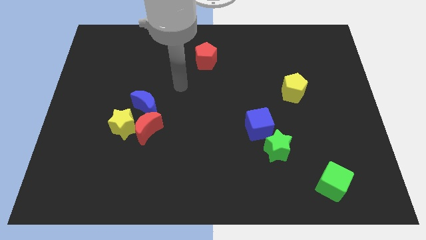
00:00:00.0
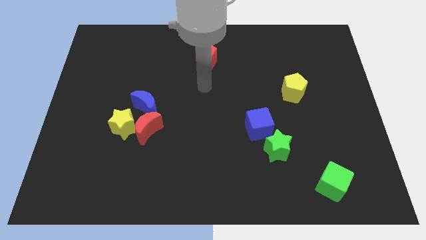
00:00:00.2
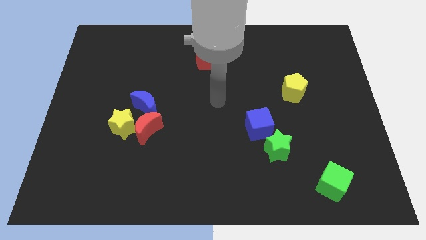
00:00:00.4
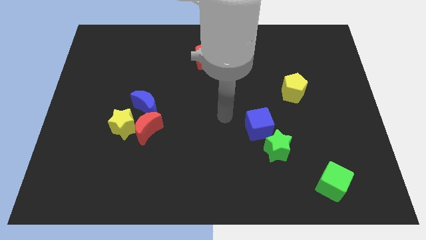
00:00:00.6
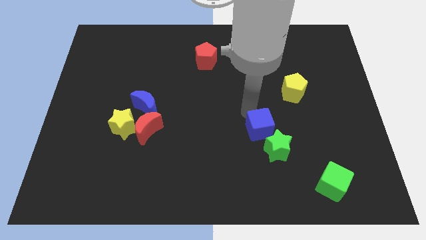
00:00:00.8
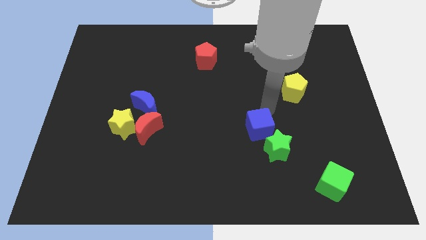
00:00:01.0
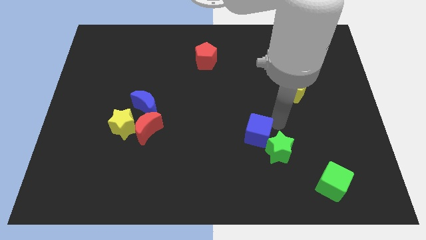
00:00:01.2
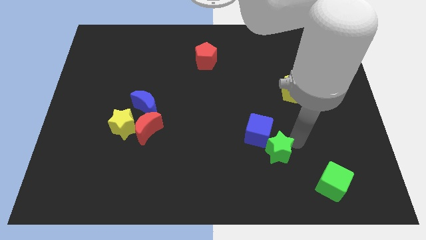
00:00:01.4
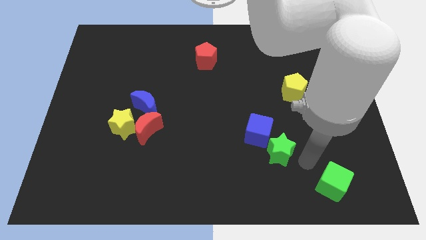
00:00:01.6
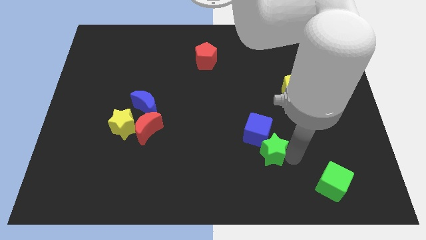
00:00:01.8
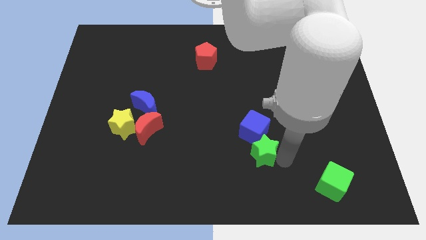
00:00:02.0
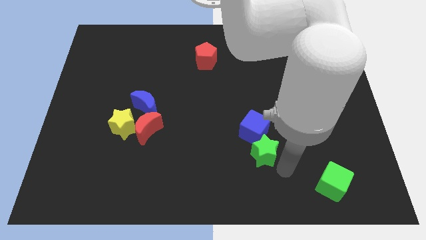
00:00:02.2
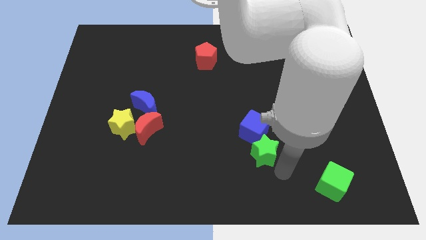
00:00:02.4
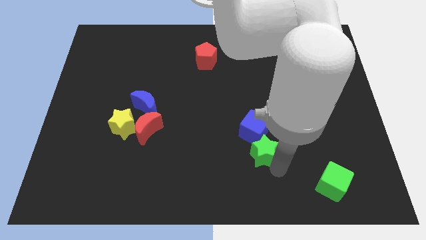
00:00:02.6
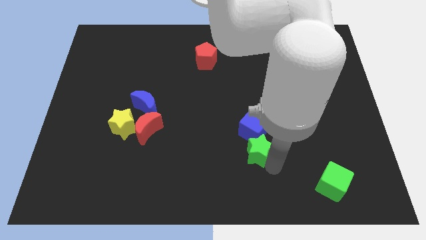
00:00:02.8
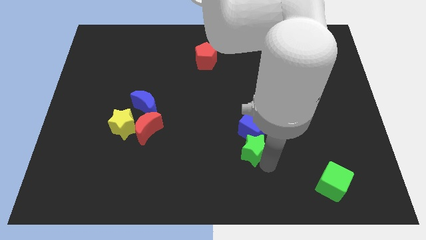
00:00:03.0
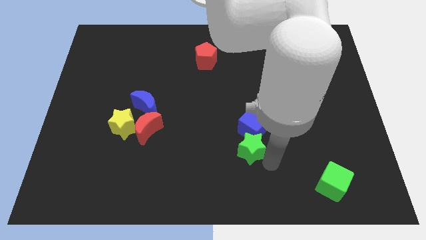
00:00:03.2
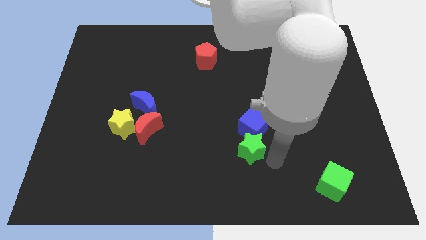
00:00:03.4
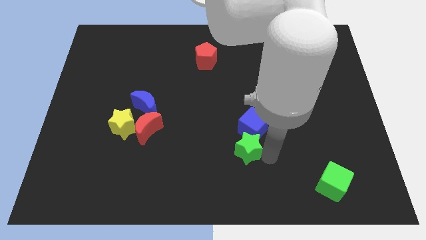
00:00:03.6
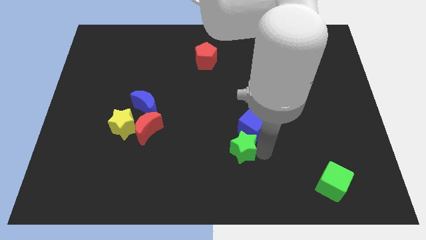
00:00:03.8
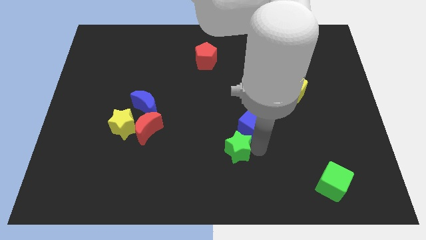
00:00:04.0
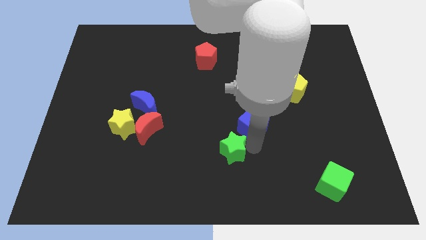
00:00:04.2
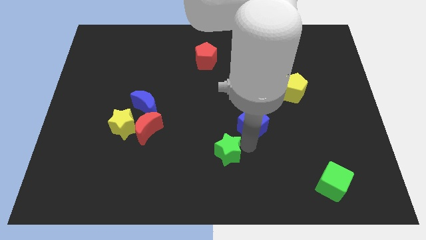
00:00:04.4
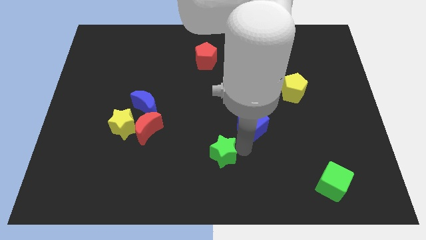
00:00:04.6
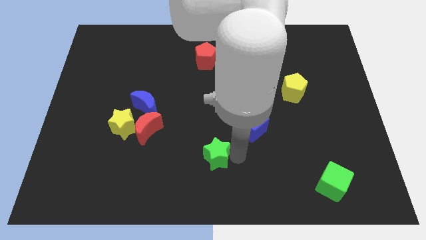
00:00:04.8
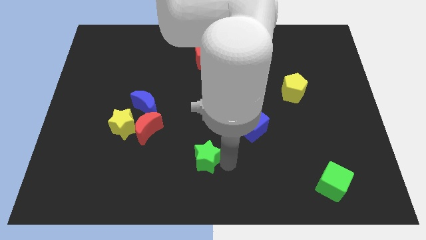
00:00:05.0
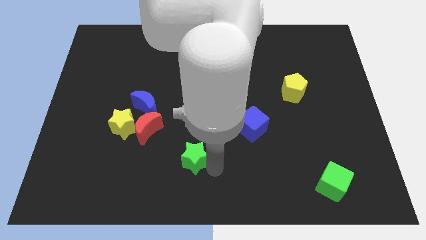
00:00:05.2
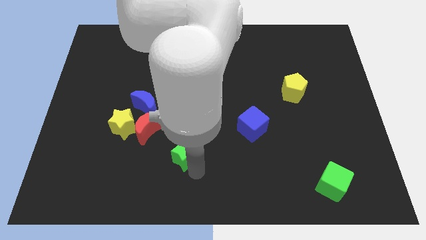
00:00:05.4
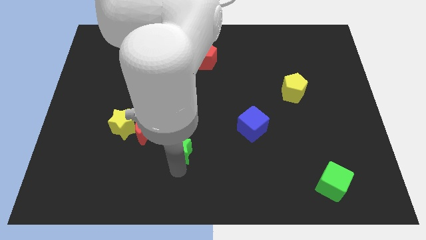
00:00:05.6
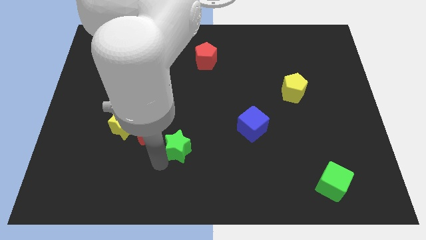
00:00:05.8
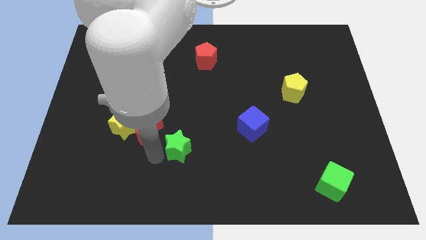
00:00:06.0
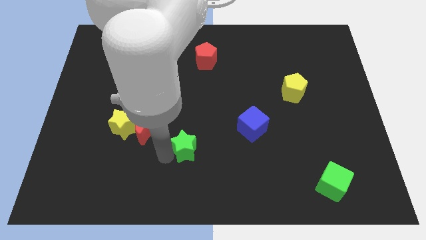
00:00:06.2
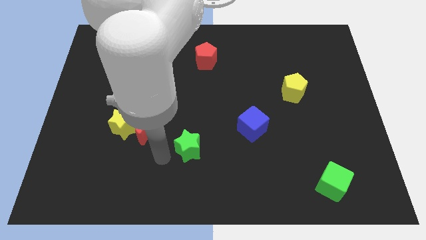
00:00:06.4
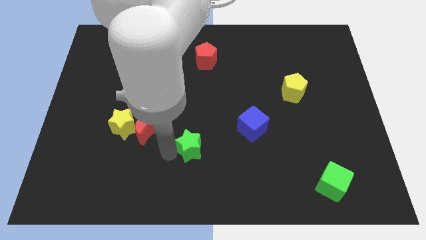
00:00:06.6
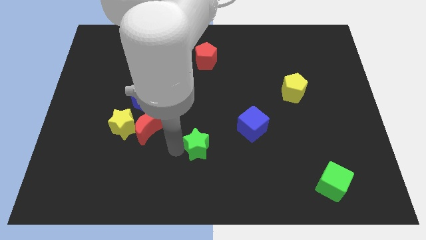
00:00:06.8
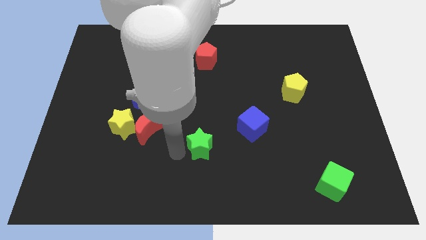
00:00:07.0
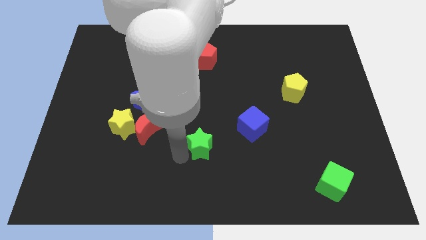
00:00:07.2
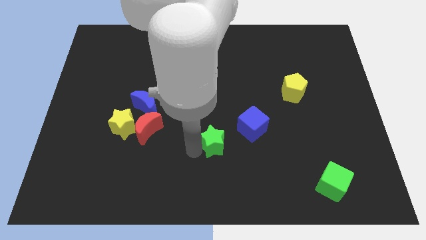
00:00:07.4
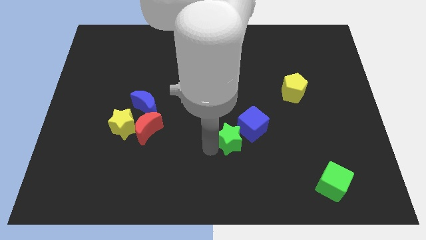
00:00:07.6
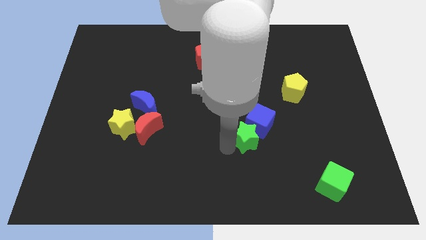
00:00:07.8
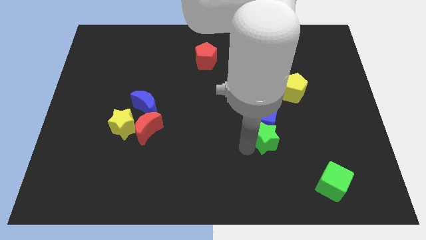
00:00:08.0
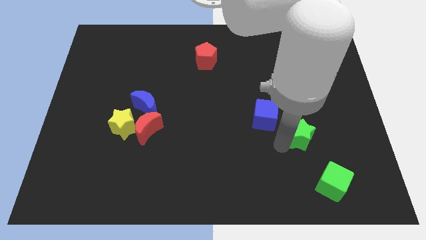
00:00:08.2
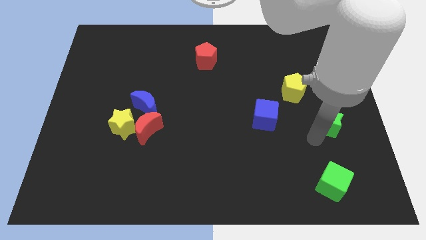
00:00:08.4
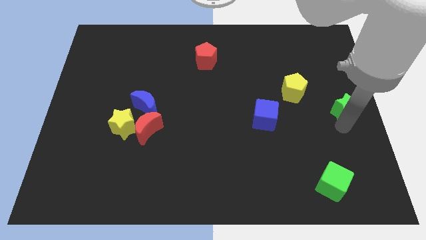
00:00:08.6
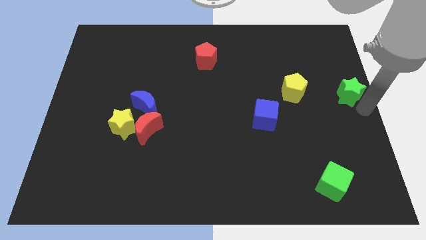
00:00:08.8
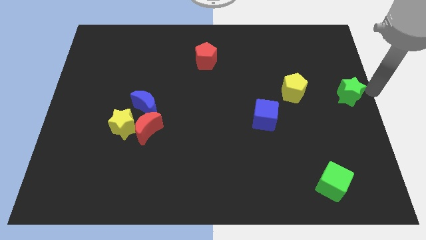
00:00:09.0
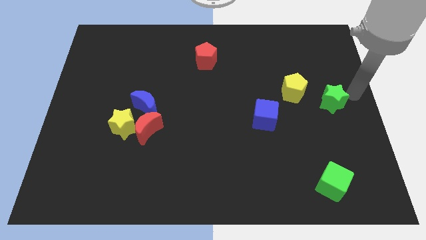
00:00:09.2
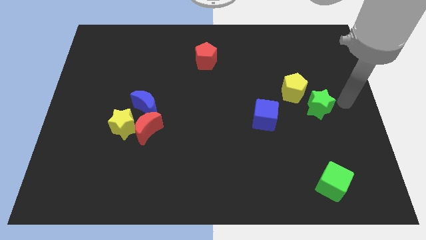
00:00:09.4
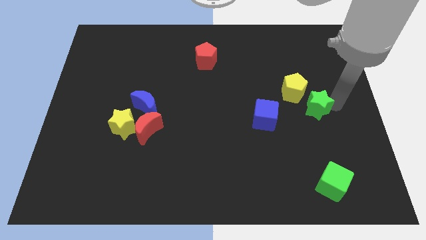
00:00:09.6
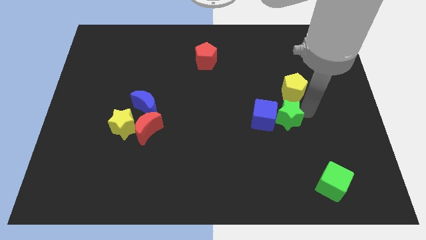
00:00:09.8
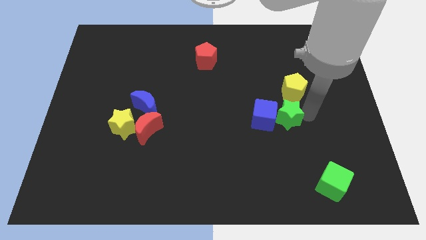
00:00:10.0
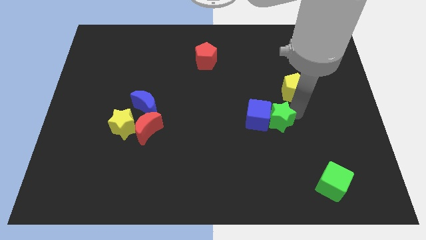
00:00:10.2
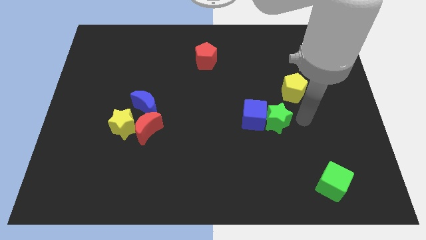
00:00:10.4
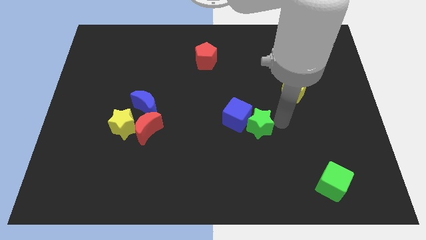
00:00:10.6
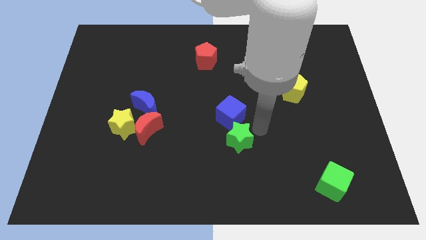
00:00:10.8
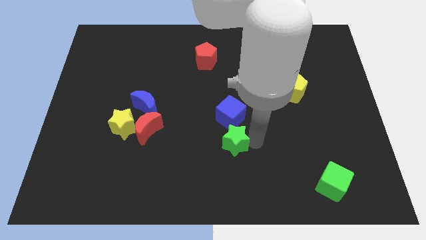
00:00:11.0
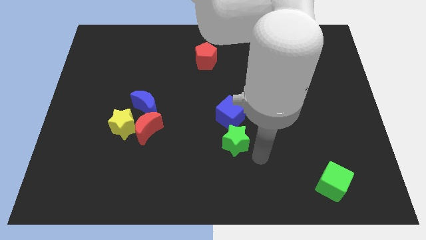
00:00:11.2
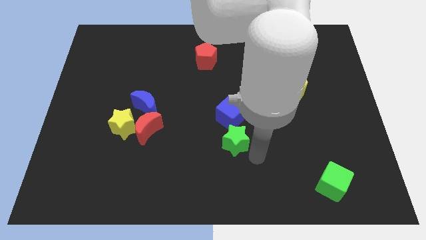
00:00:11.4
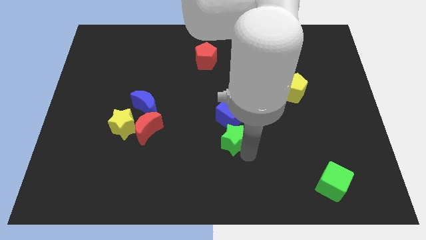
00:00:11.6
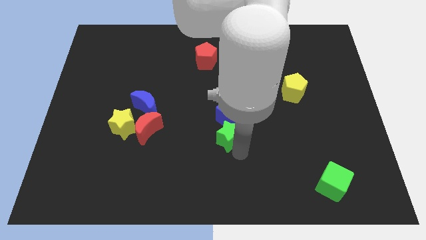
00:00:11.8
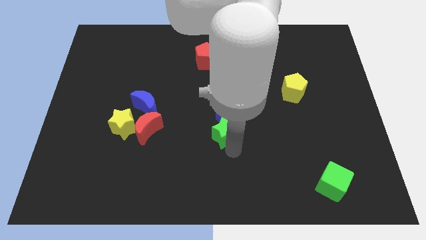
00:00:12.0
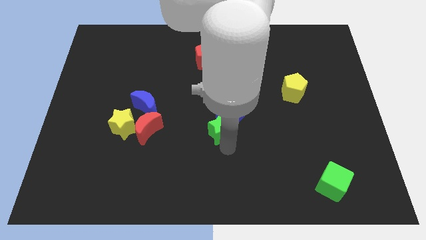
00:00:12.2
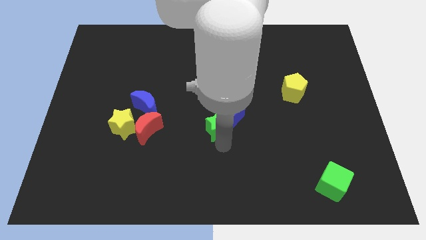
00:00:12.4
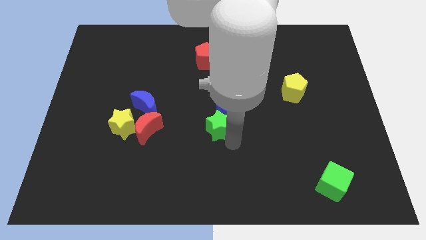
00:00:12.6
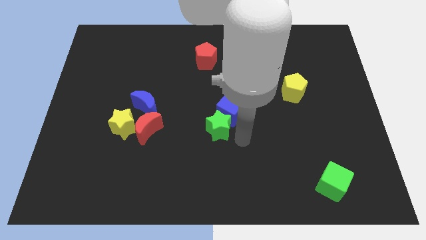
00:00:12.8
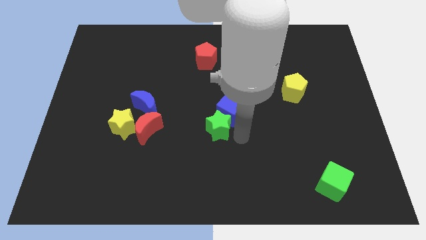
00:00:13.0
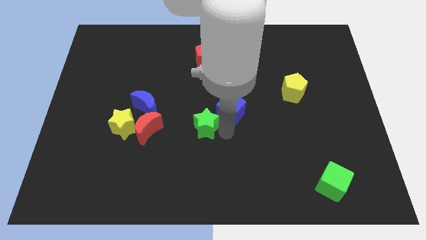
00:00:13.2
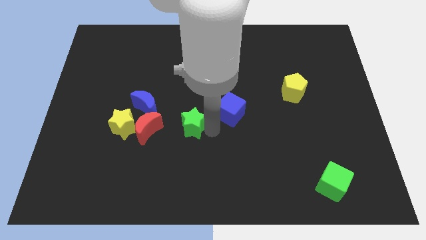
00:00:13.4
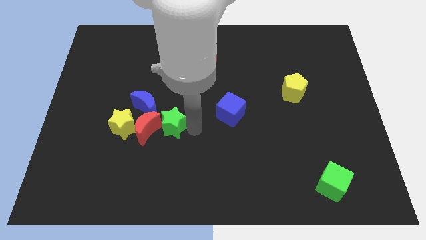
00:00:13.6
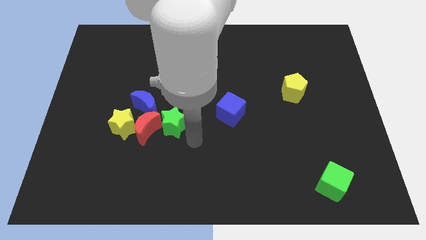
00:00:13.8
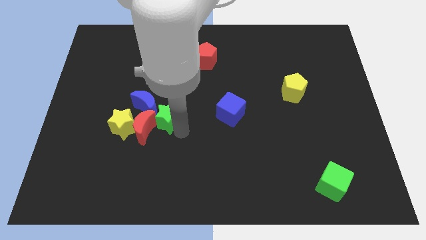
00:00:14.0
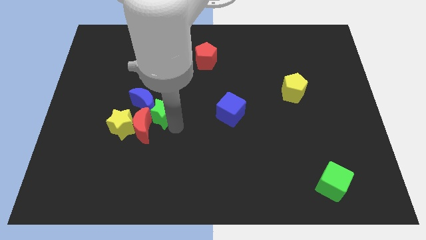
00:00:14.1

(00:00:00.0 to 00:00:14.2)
put the green star to the blue moon
